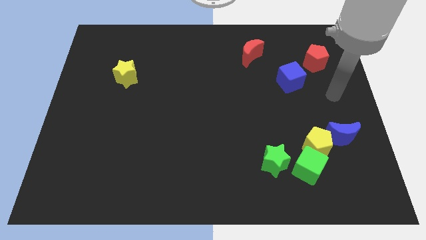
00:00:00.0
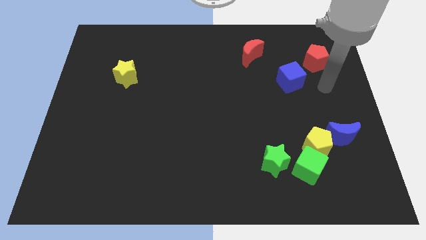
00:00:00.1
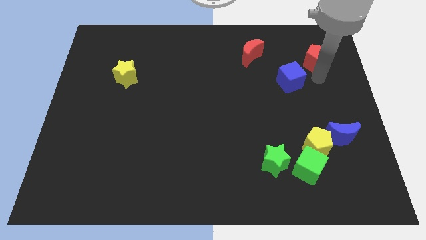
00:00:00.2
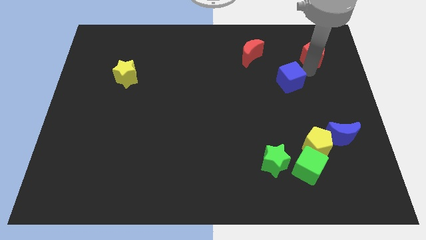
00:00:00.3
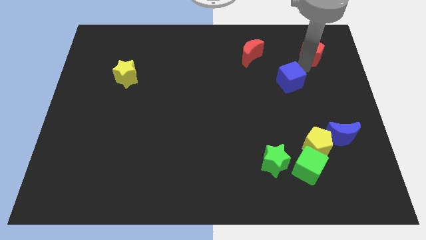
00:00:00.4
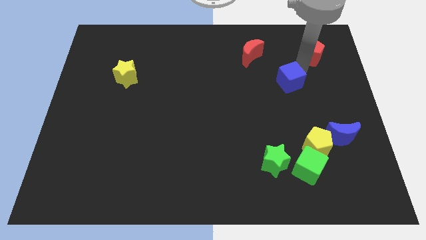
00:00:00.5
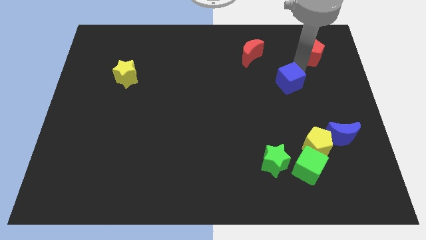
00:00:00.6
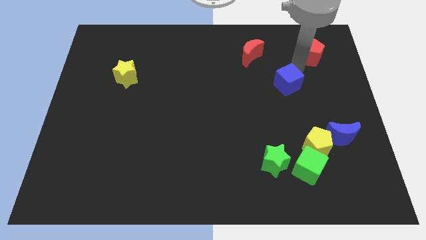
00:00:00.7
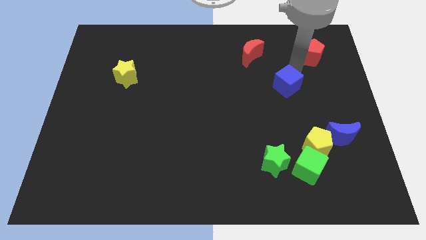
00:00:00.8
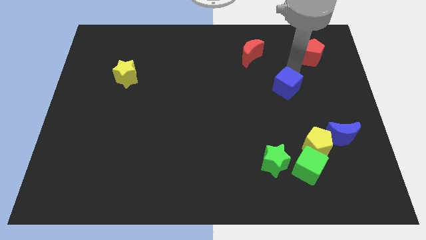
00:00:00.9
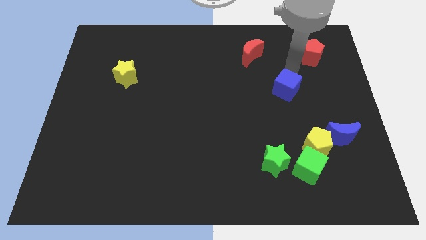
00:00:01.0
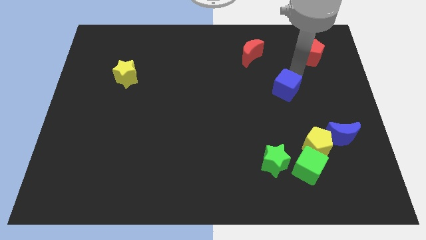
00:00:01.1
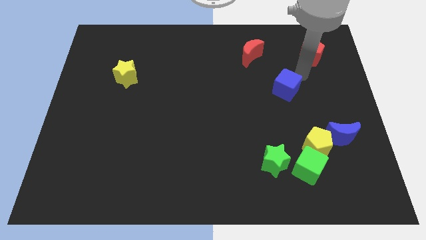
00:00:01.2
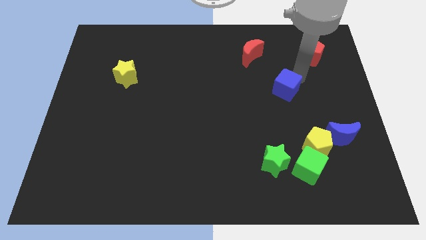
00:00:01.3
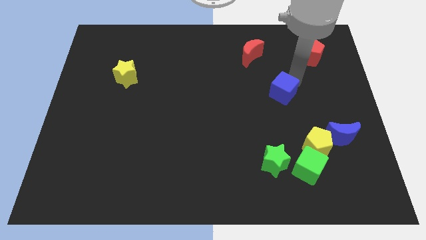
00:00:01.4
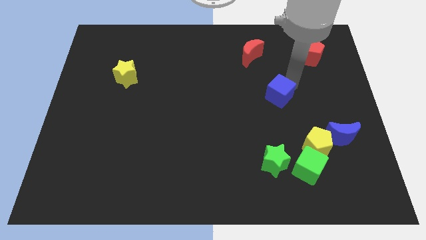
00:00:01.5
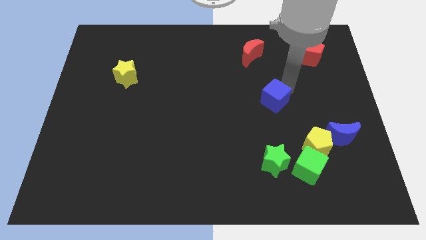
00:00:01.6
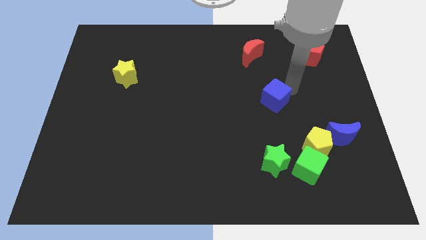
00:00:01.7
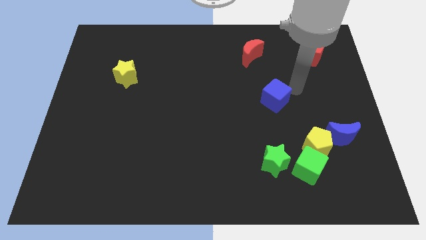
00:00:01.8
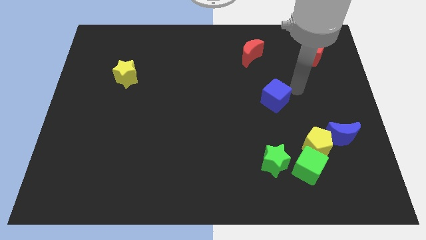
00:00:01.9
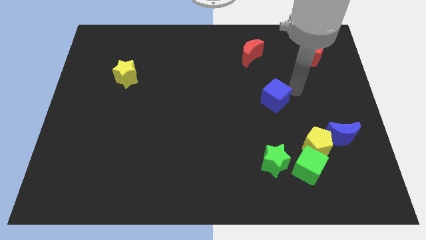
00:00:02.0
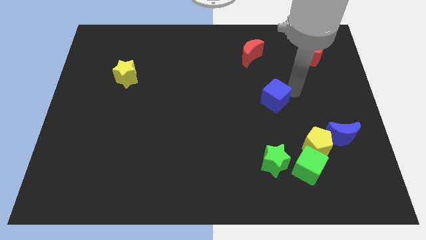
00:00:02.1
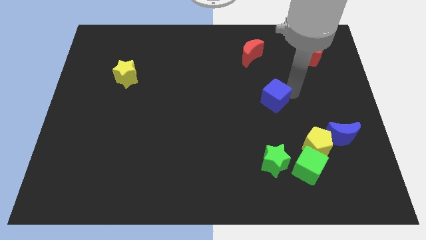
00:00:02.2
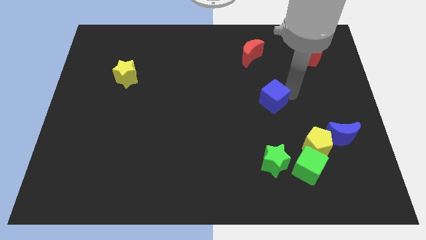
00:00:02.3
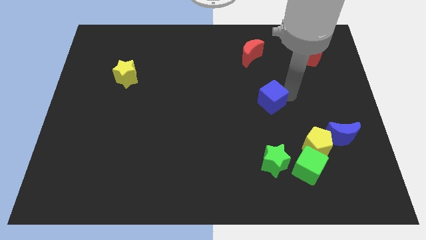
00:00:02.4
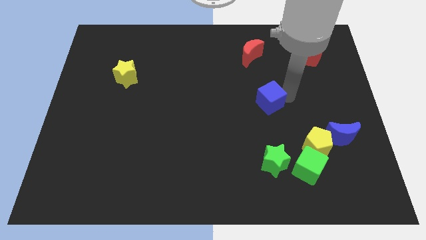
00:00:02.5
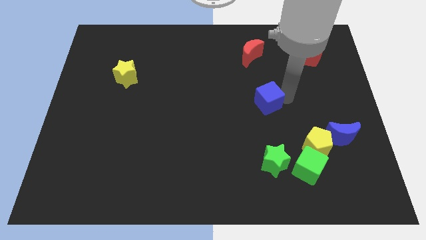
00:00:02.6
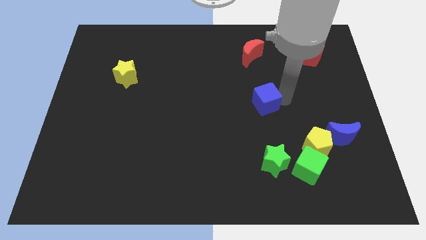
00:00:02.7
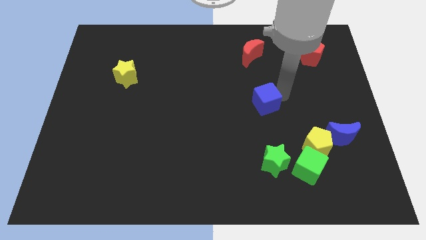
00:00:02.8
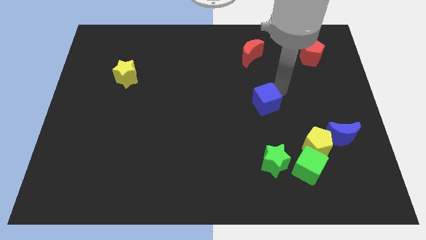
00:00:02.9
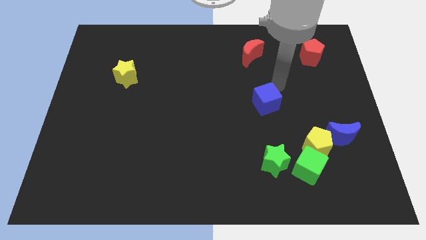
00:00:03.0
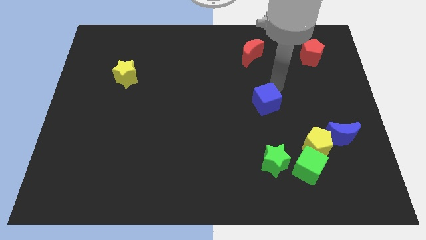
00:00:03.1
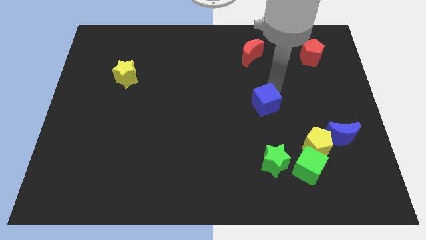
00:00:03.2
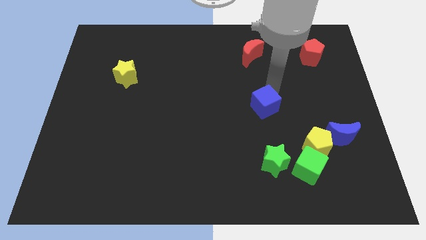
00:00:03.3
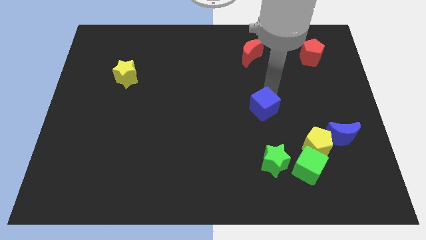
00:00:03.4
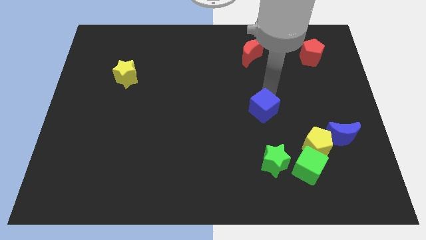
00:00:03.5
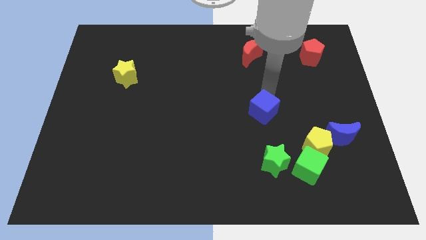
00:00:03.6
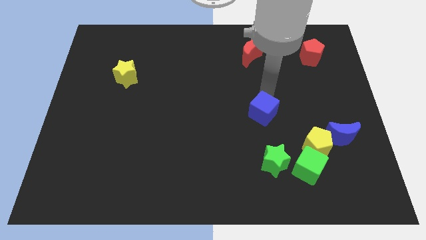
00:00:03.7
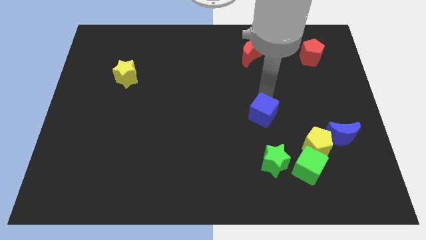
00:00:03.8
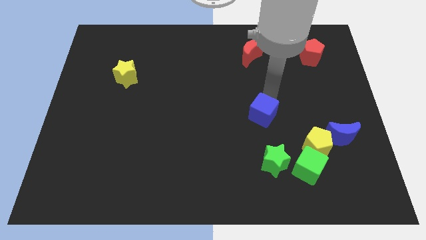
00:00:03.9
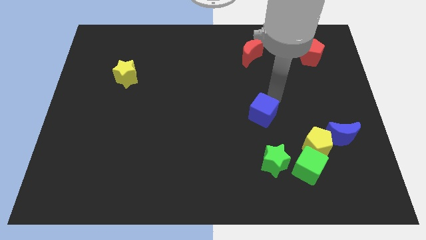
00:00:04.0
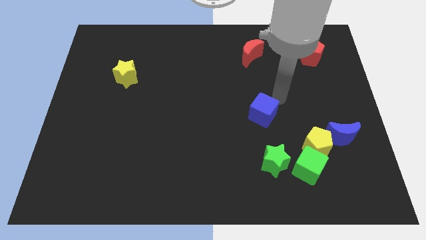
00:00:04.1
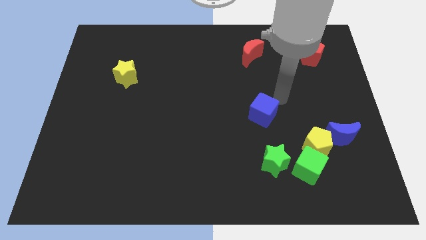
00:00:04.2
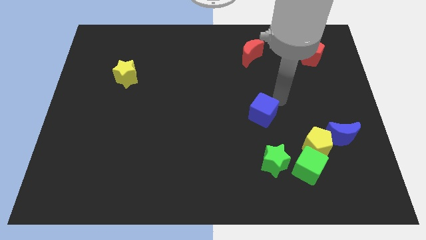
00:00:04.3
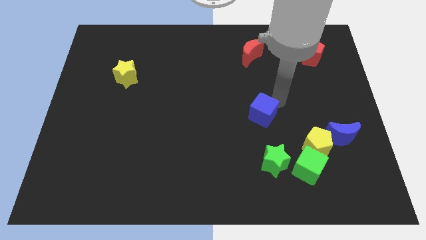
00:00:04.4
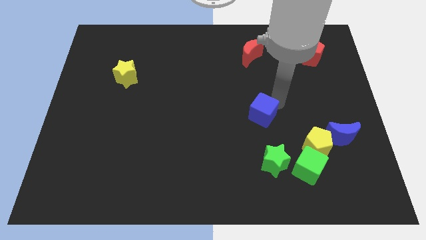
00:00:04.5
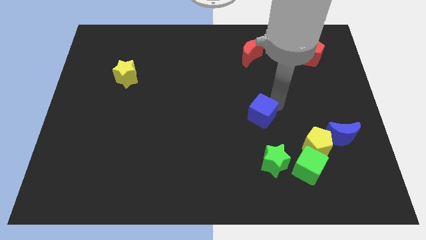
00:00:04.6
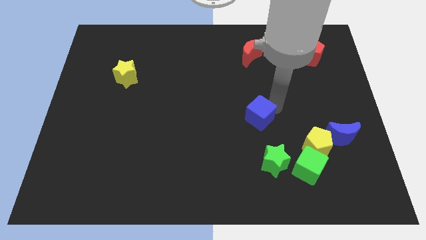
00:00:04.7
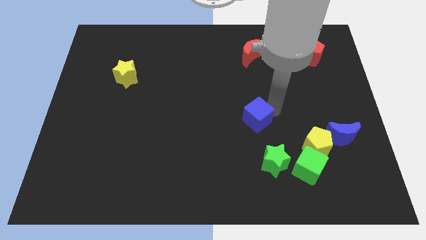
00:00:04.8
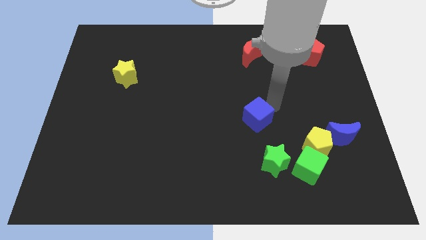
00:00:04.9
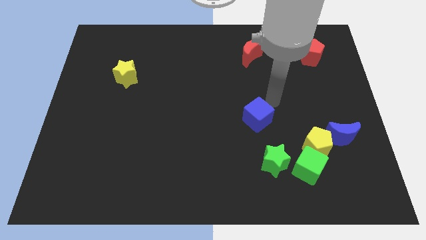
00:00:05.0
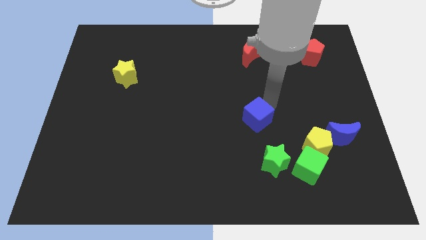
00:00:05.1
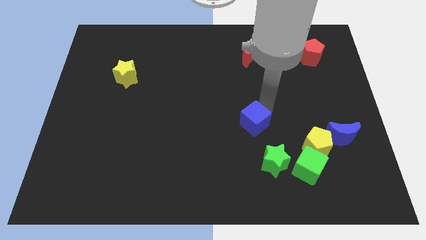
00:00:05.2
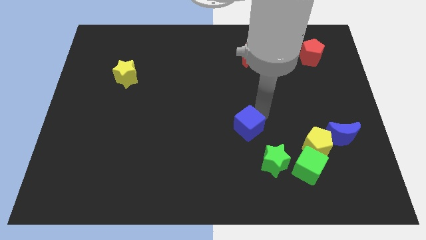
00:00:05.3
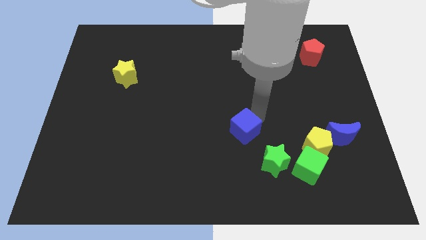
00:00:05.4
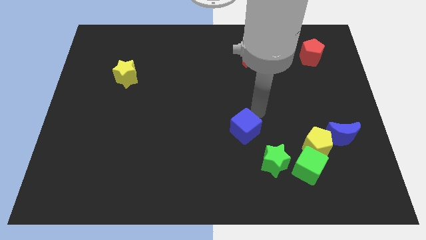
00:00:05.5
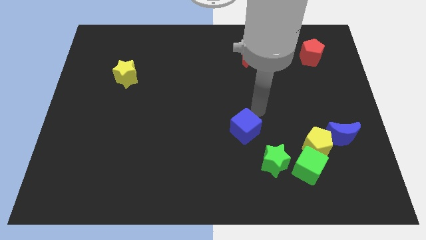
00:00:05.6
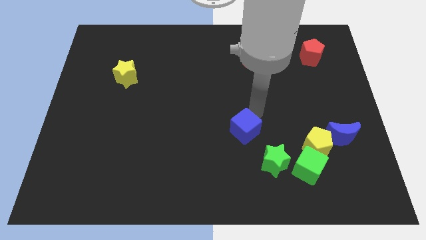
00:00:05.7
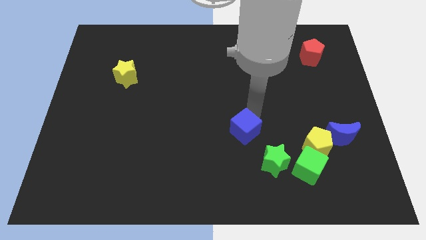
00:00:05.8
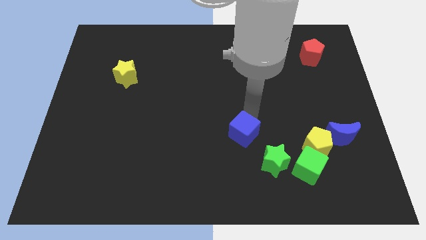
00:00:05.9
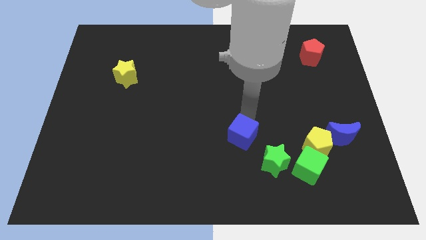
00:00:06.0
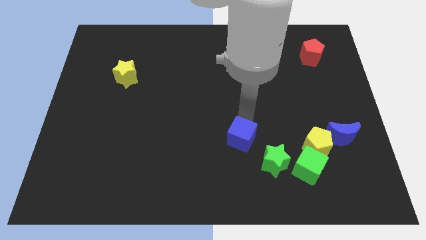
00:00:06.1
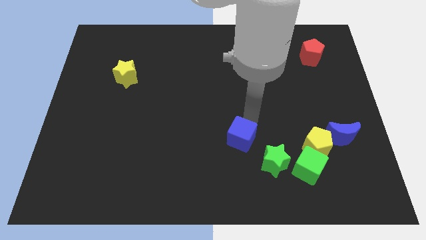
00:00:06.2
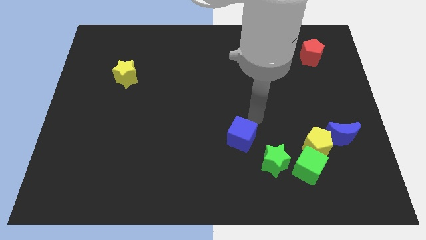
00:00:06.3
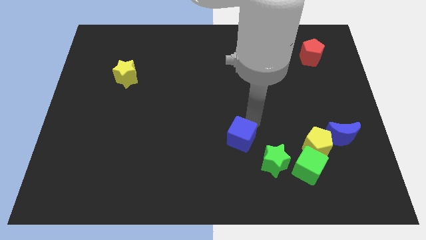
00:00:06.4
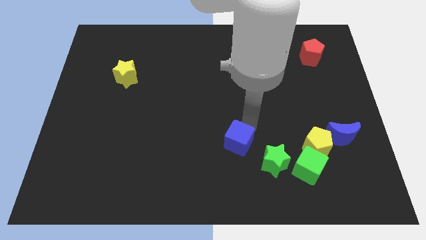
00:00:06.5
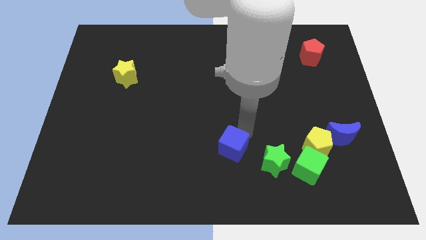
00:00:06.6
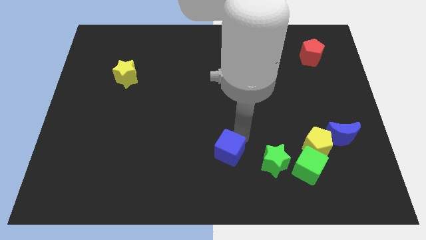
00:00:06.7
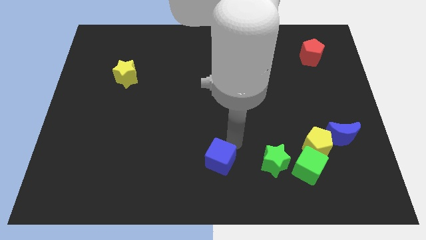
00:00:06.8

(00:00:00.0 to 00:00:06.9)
slide the blue cube to the bottom side

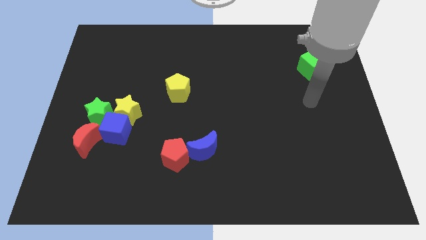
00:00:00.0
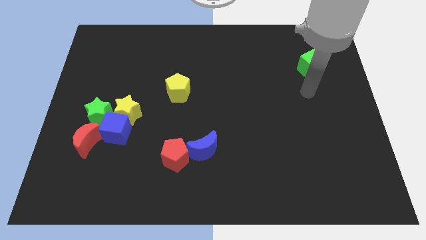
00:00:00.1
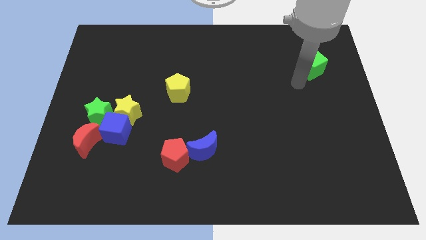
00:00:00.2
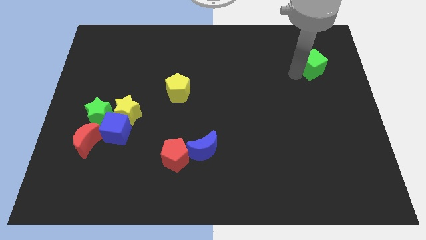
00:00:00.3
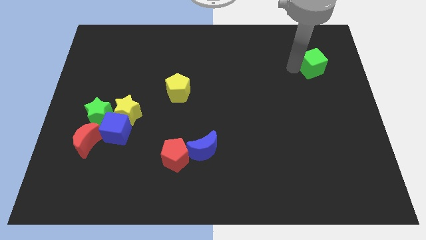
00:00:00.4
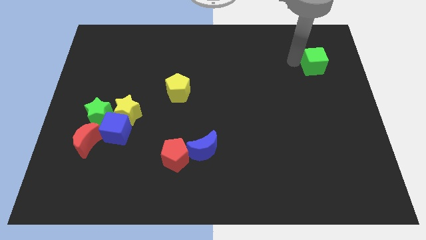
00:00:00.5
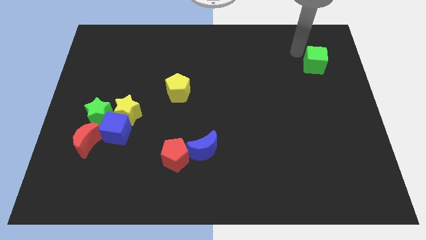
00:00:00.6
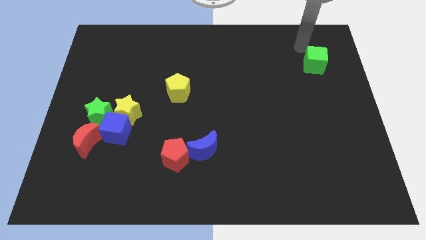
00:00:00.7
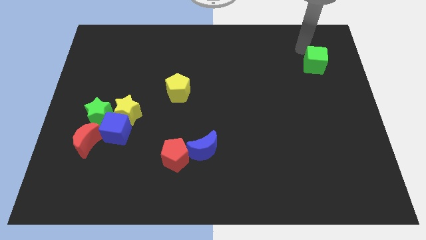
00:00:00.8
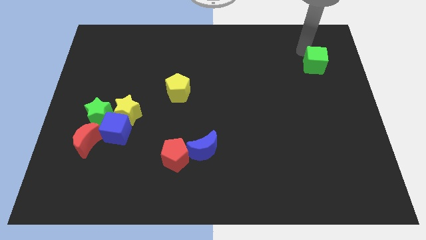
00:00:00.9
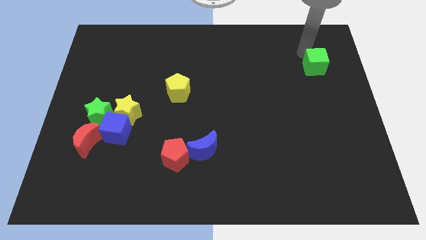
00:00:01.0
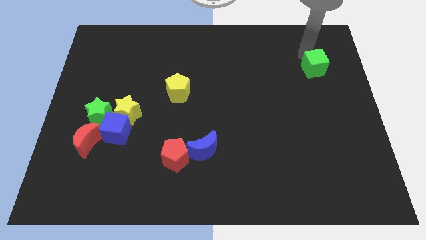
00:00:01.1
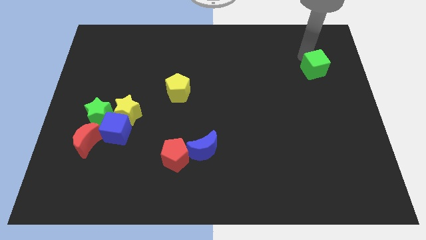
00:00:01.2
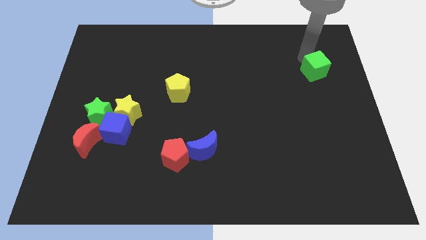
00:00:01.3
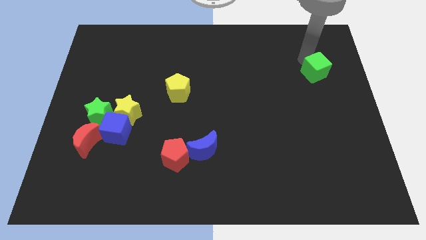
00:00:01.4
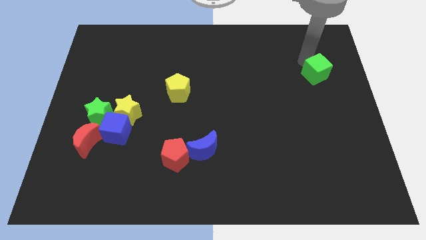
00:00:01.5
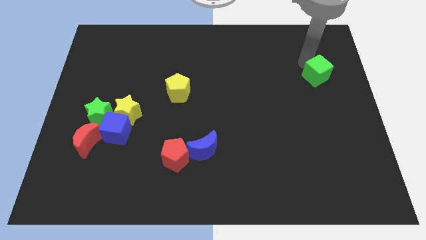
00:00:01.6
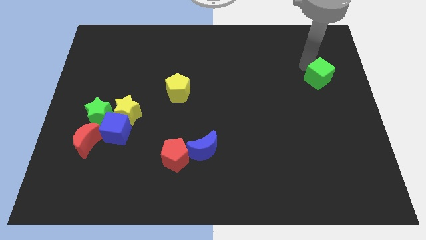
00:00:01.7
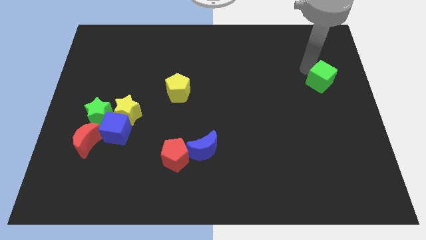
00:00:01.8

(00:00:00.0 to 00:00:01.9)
slide the green cube to the right side of the board

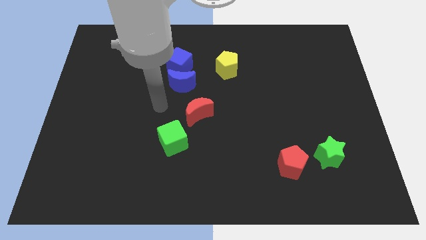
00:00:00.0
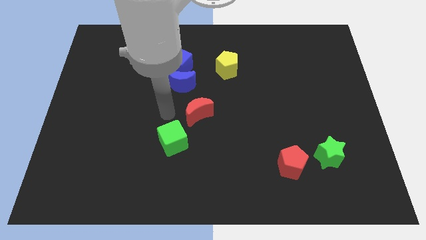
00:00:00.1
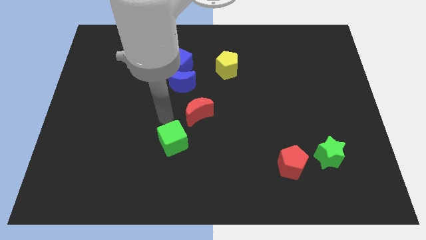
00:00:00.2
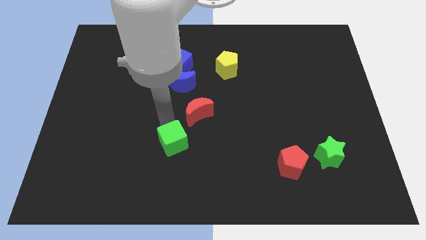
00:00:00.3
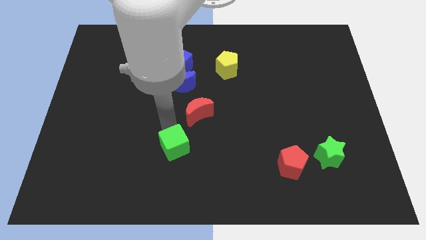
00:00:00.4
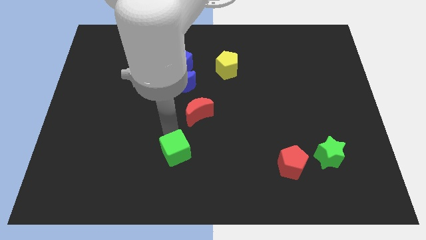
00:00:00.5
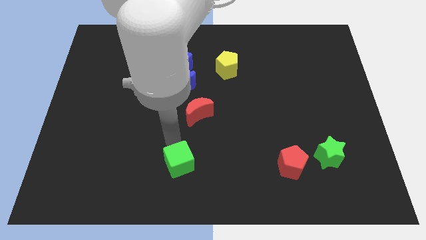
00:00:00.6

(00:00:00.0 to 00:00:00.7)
put the green cube to the bottom
